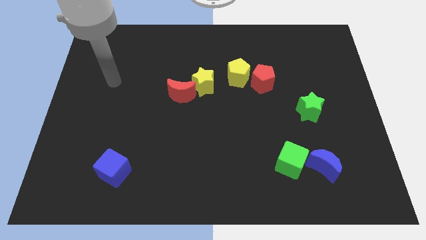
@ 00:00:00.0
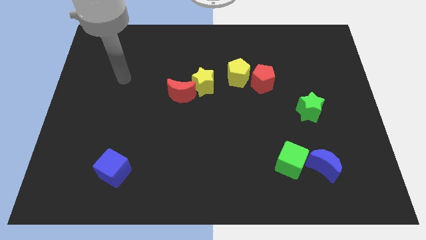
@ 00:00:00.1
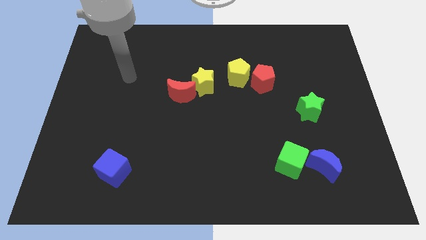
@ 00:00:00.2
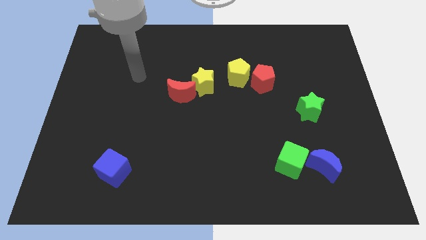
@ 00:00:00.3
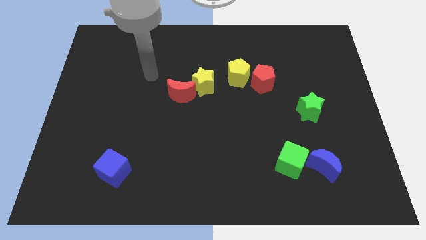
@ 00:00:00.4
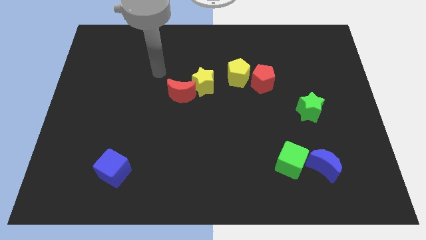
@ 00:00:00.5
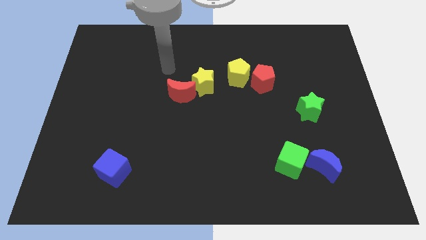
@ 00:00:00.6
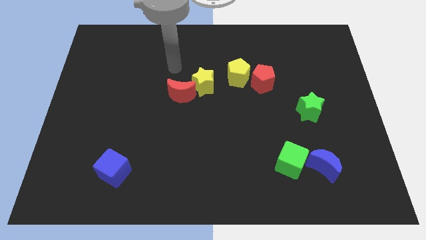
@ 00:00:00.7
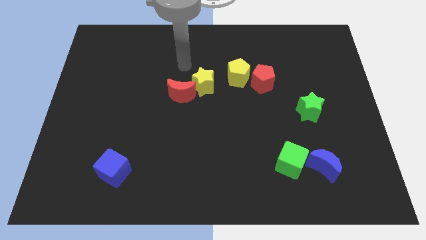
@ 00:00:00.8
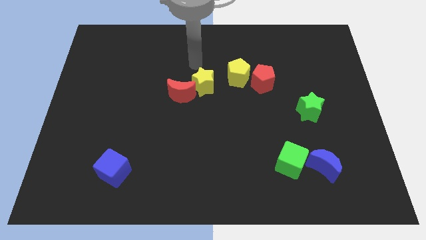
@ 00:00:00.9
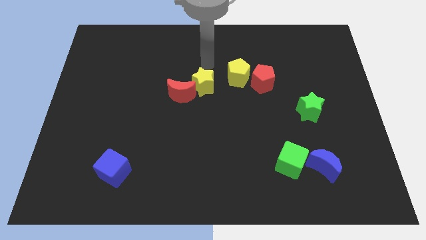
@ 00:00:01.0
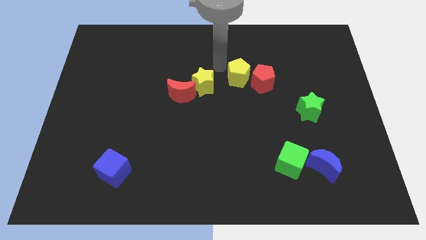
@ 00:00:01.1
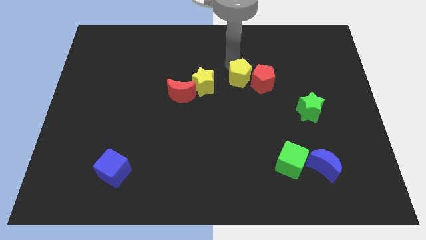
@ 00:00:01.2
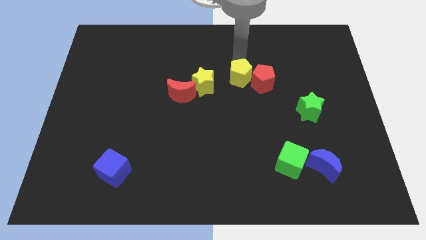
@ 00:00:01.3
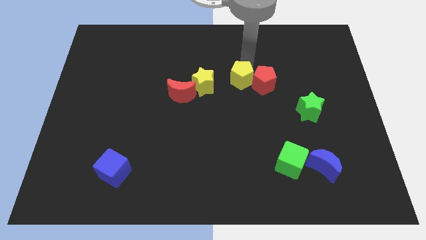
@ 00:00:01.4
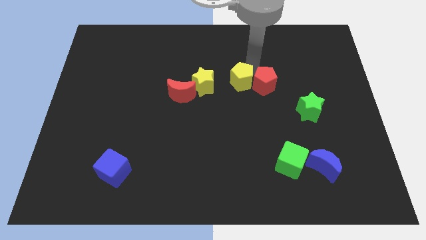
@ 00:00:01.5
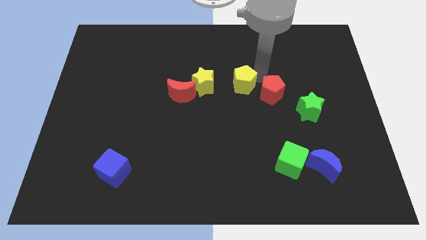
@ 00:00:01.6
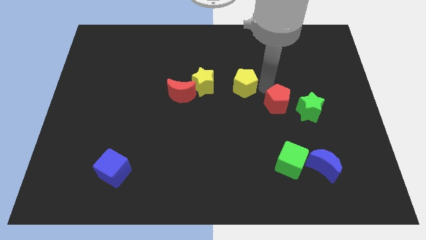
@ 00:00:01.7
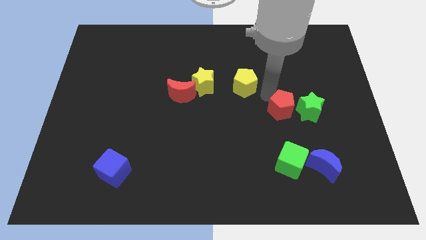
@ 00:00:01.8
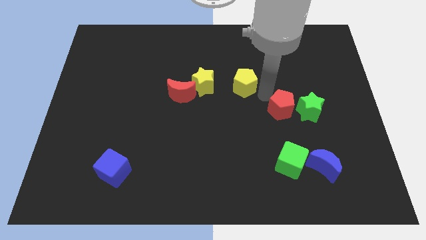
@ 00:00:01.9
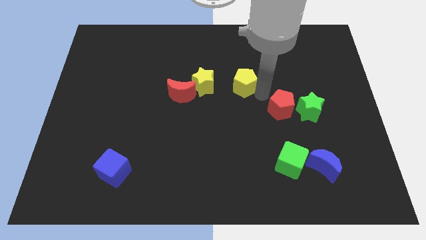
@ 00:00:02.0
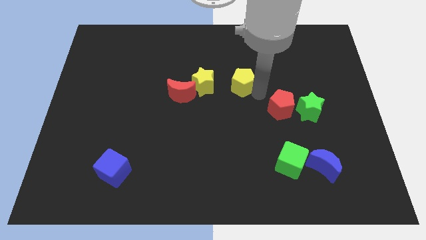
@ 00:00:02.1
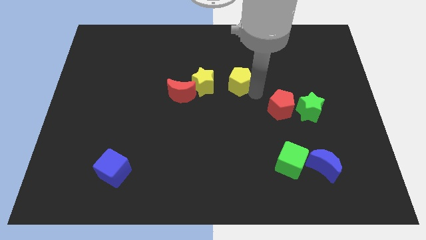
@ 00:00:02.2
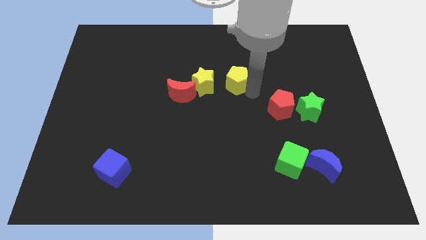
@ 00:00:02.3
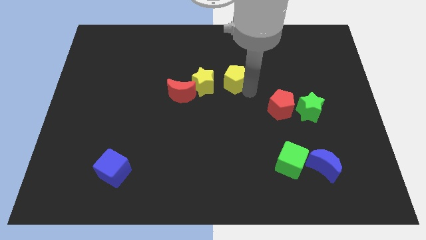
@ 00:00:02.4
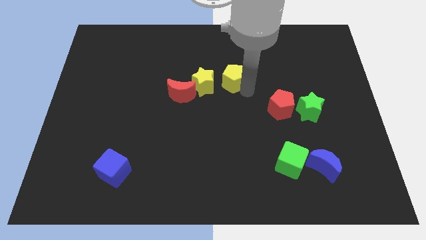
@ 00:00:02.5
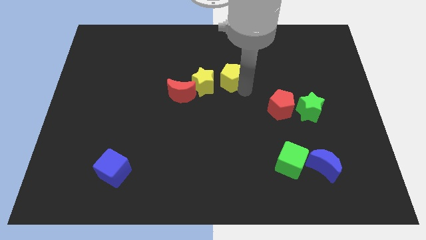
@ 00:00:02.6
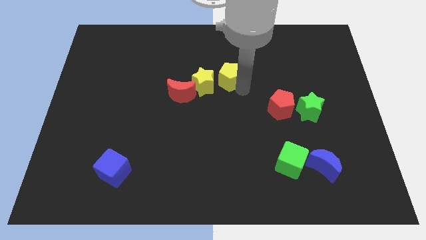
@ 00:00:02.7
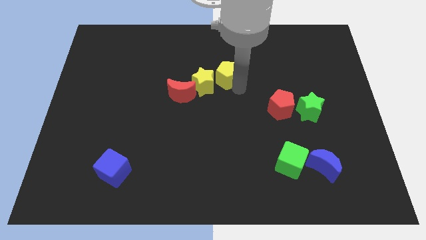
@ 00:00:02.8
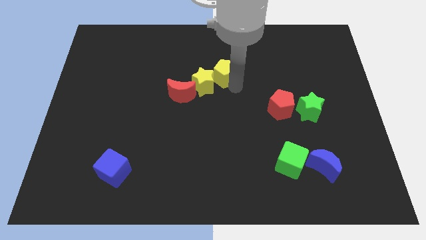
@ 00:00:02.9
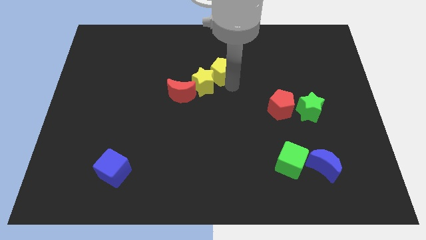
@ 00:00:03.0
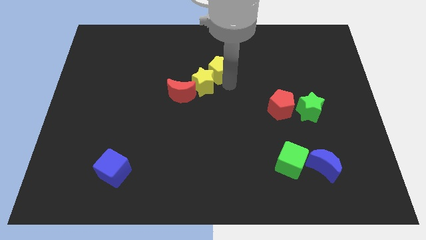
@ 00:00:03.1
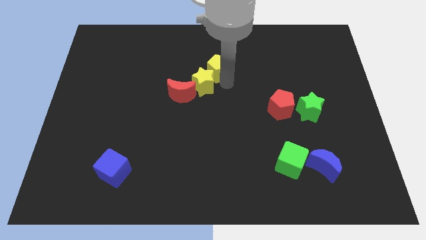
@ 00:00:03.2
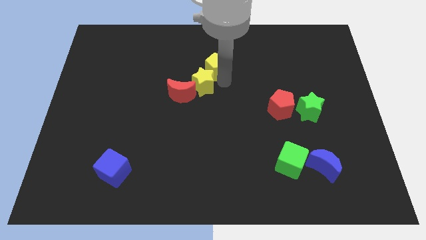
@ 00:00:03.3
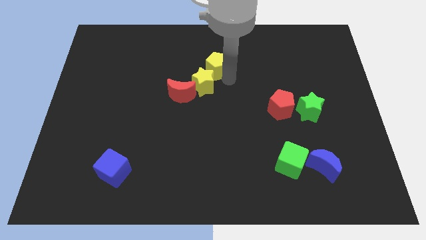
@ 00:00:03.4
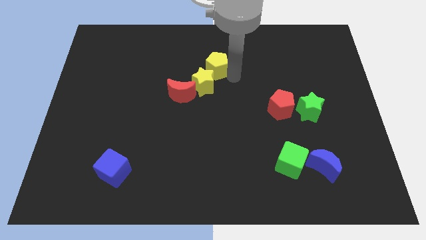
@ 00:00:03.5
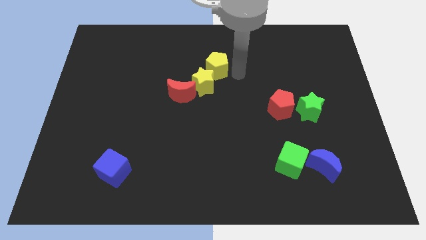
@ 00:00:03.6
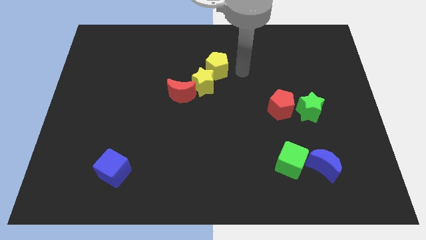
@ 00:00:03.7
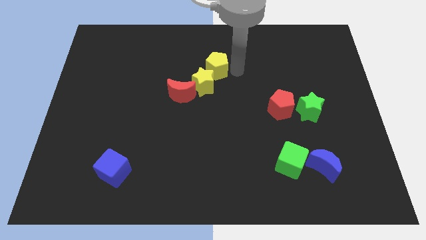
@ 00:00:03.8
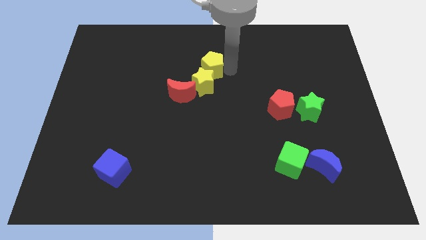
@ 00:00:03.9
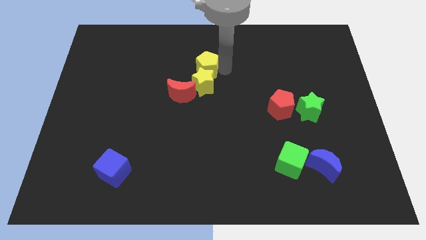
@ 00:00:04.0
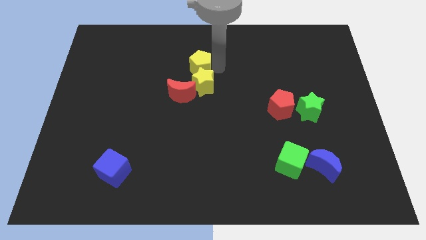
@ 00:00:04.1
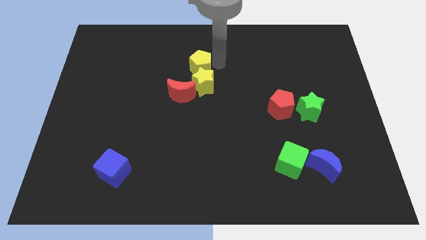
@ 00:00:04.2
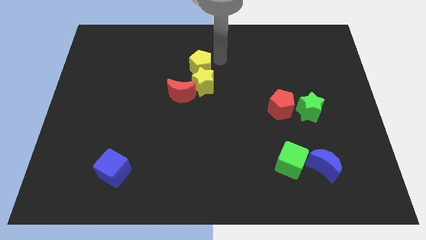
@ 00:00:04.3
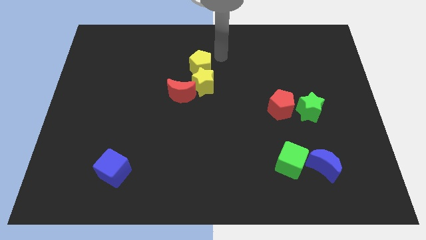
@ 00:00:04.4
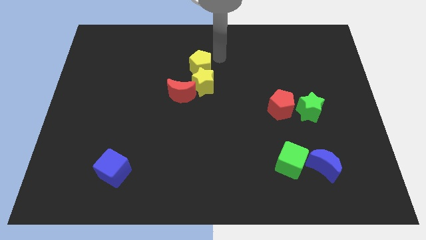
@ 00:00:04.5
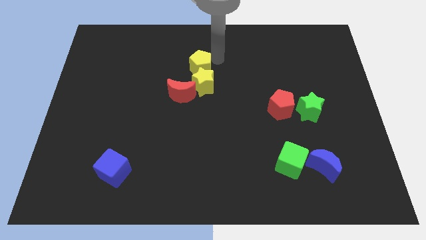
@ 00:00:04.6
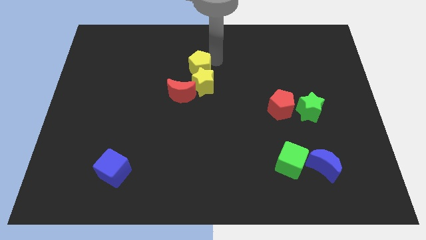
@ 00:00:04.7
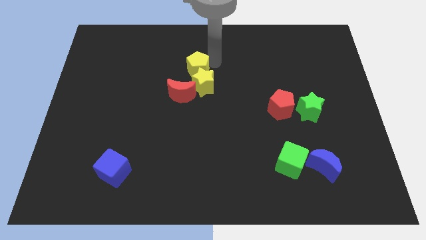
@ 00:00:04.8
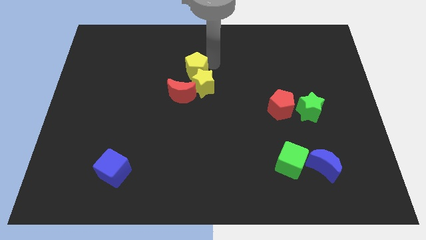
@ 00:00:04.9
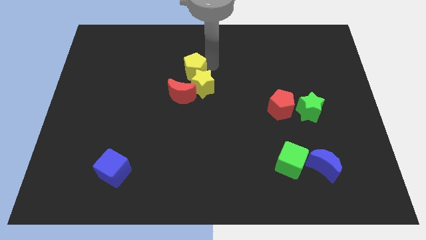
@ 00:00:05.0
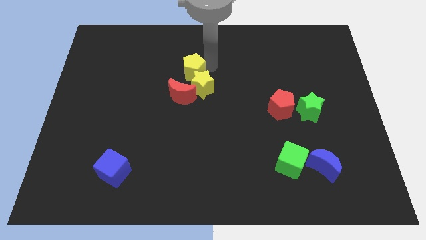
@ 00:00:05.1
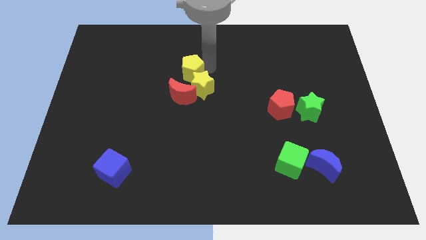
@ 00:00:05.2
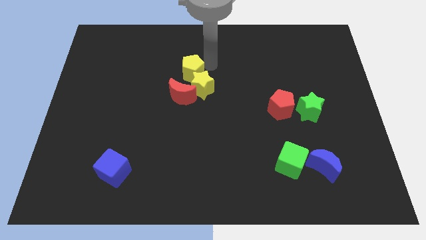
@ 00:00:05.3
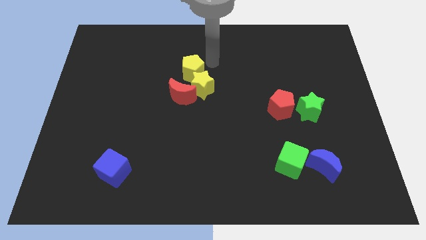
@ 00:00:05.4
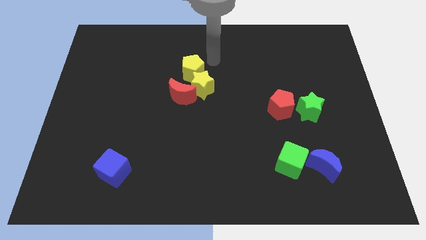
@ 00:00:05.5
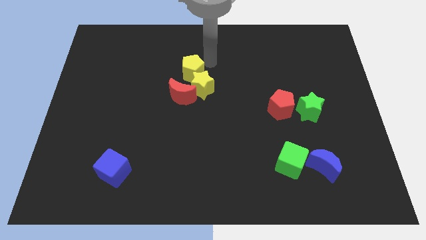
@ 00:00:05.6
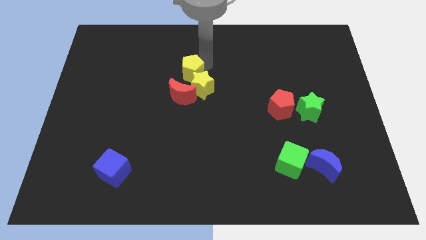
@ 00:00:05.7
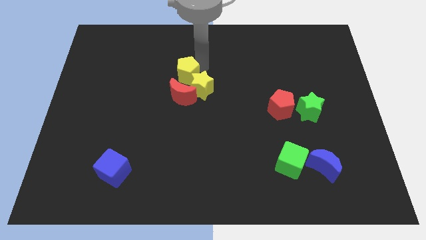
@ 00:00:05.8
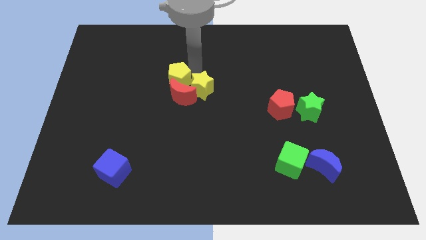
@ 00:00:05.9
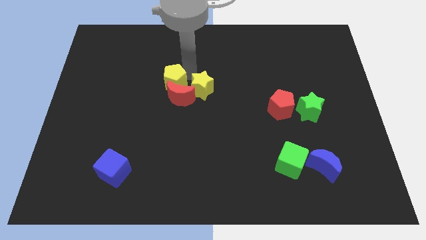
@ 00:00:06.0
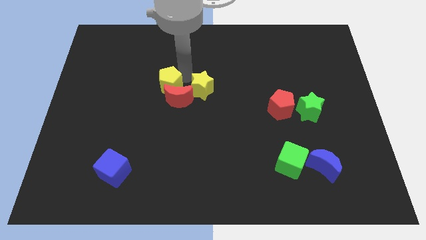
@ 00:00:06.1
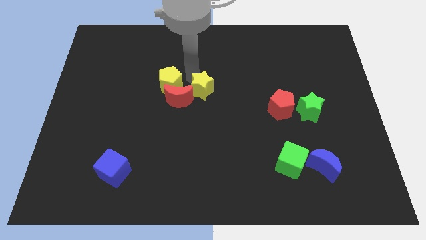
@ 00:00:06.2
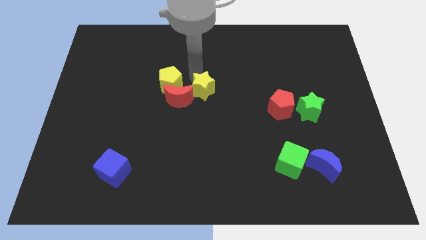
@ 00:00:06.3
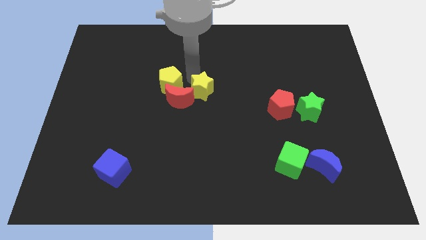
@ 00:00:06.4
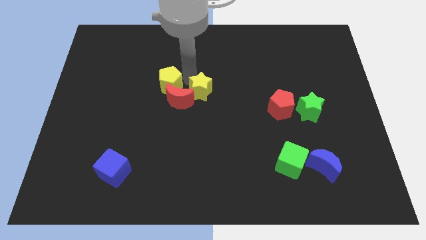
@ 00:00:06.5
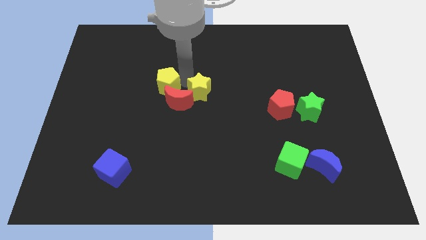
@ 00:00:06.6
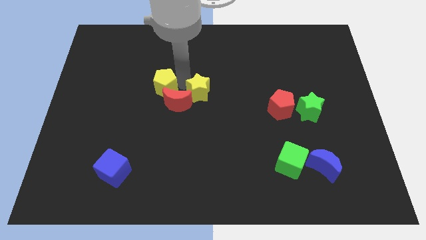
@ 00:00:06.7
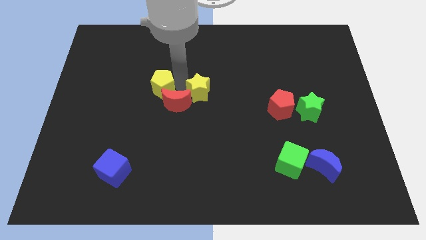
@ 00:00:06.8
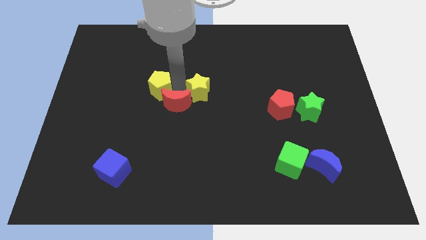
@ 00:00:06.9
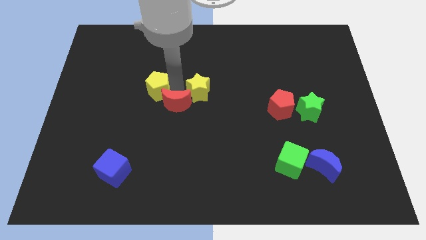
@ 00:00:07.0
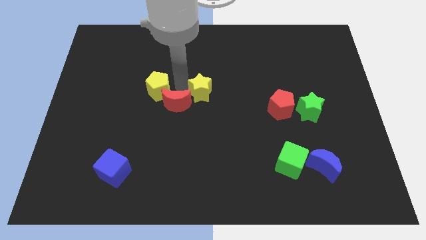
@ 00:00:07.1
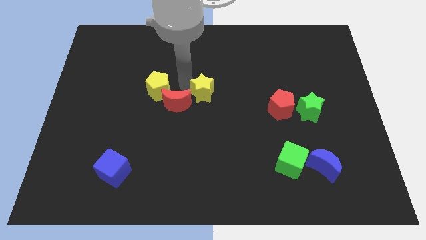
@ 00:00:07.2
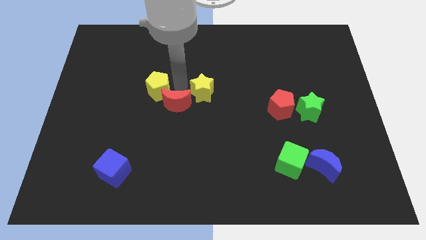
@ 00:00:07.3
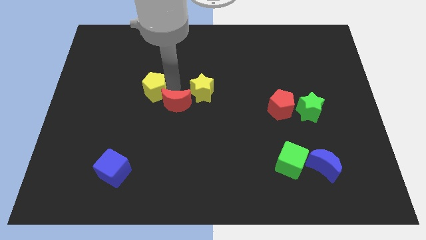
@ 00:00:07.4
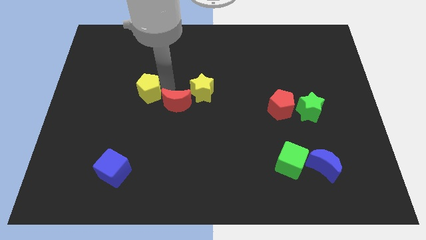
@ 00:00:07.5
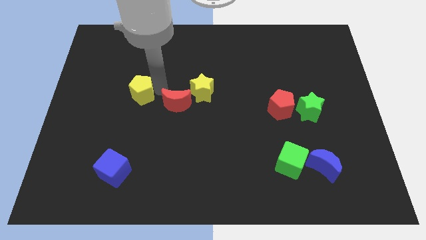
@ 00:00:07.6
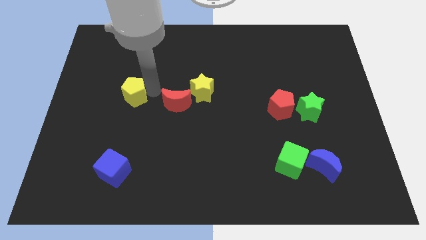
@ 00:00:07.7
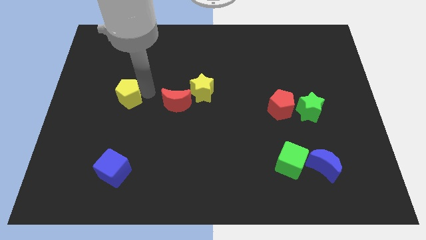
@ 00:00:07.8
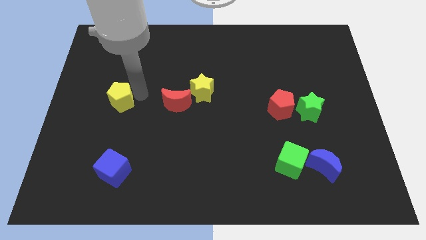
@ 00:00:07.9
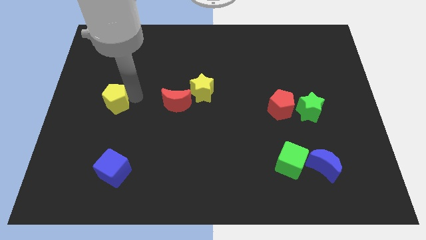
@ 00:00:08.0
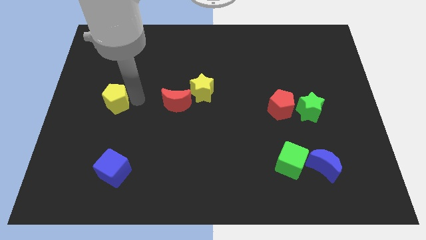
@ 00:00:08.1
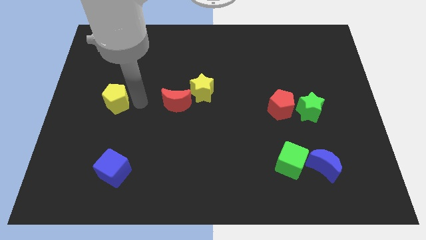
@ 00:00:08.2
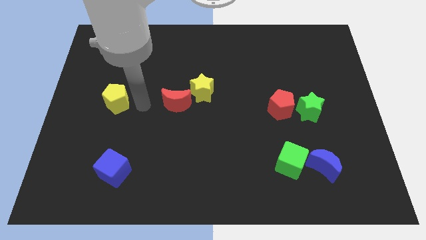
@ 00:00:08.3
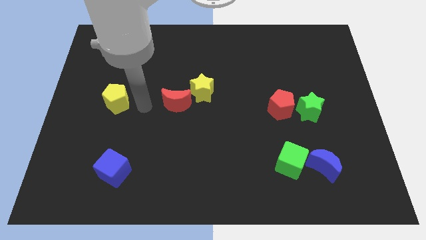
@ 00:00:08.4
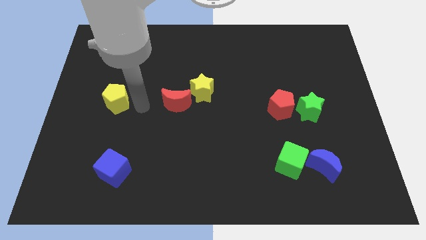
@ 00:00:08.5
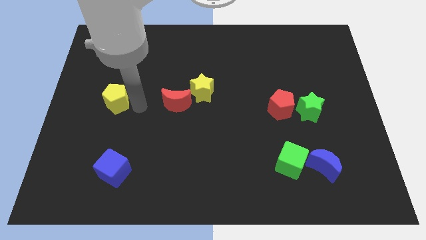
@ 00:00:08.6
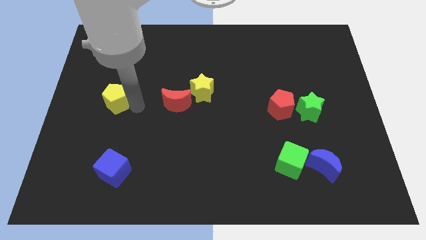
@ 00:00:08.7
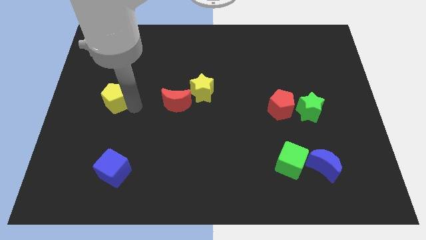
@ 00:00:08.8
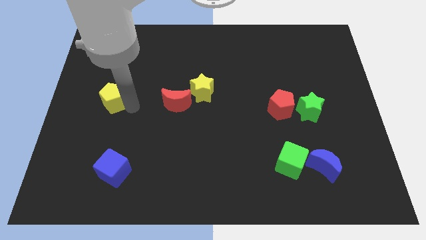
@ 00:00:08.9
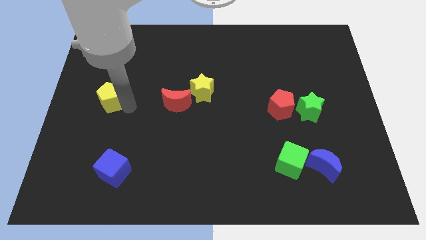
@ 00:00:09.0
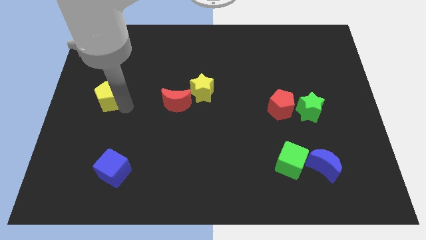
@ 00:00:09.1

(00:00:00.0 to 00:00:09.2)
push the yellow pentagon to the center left
